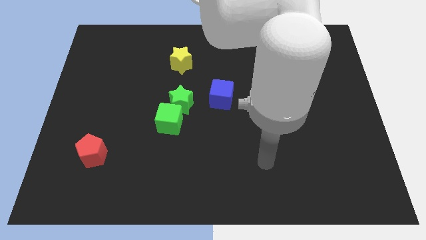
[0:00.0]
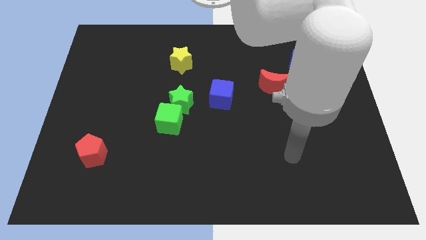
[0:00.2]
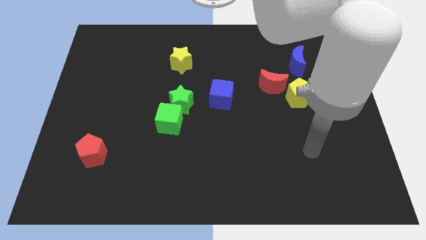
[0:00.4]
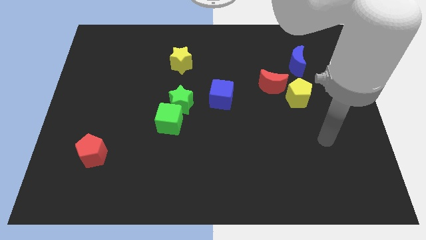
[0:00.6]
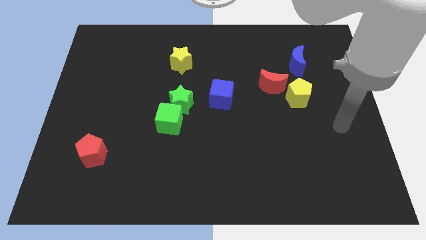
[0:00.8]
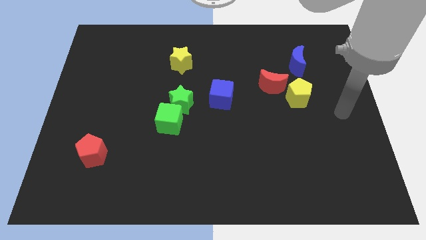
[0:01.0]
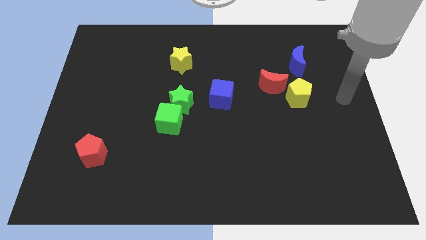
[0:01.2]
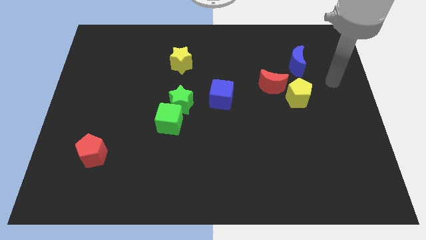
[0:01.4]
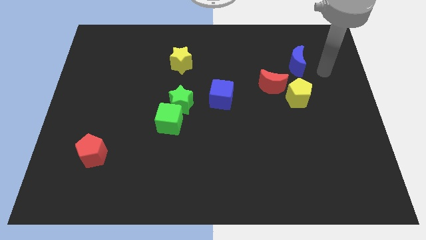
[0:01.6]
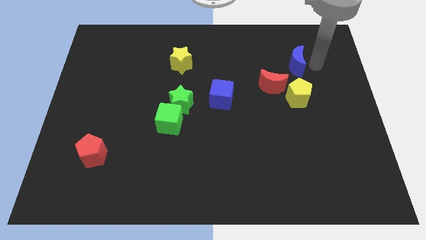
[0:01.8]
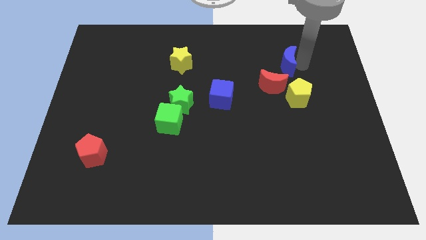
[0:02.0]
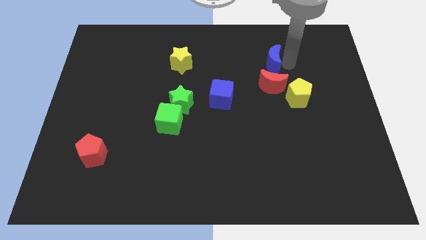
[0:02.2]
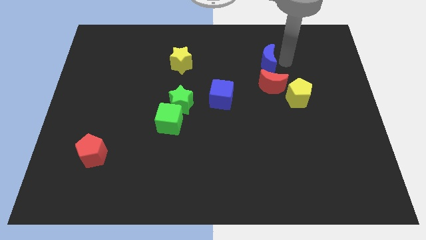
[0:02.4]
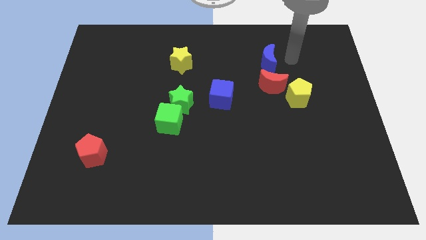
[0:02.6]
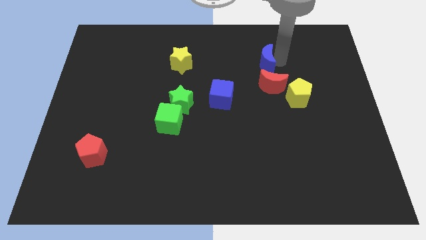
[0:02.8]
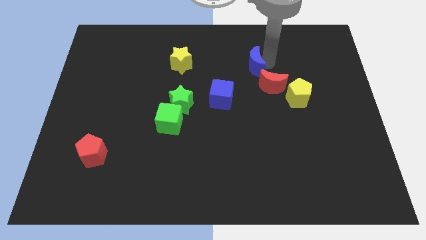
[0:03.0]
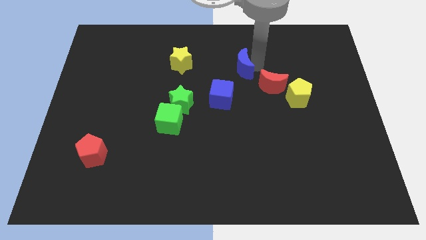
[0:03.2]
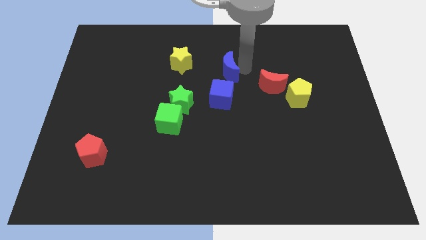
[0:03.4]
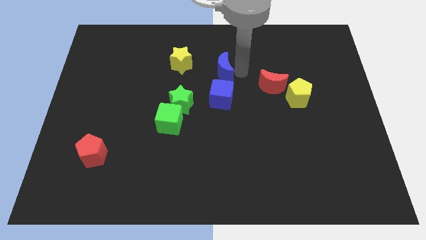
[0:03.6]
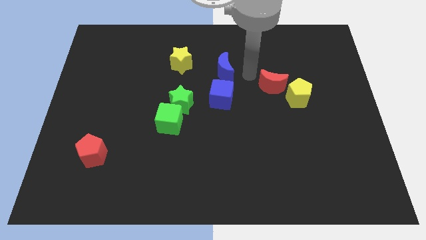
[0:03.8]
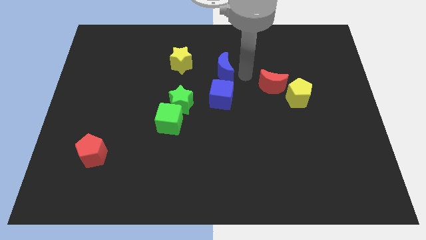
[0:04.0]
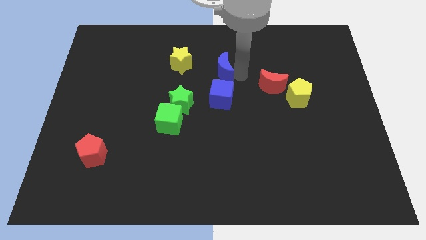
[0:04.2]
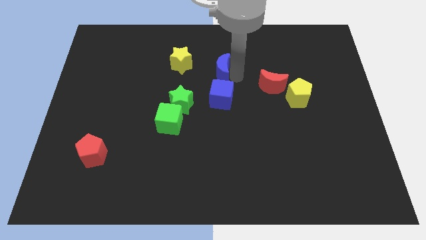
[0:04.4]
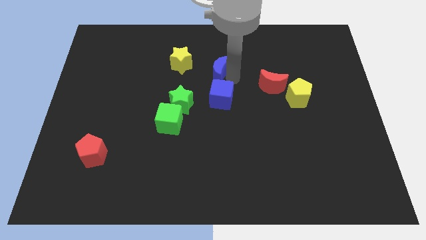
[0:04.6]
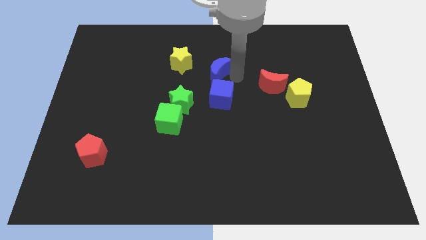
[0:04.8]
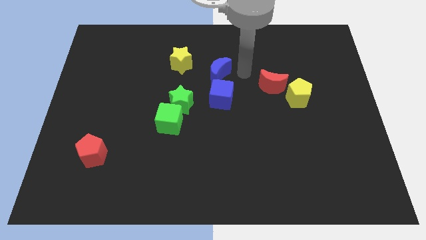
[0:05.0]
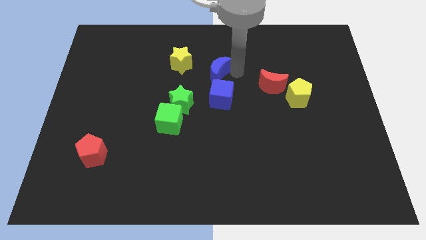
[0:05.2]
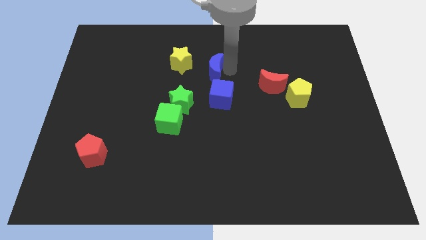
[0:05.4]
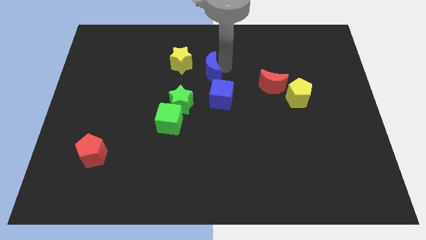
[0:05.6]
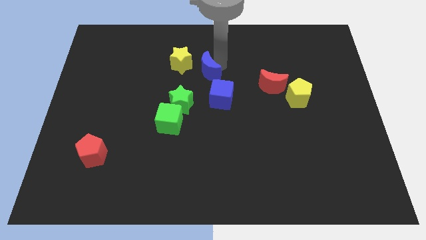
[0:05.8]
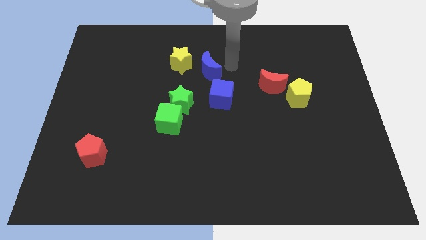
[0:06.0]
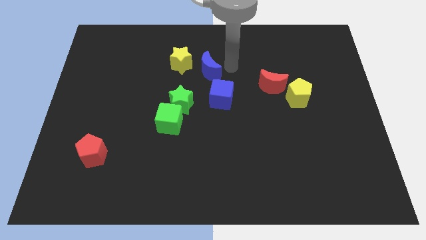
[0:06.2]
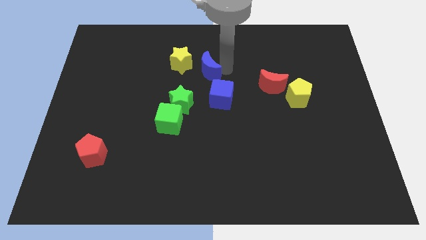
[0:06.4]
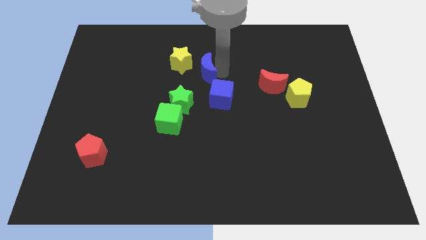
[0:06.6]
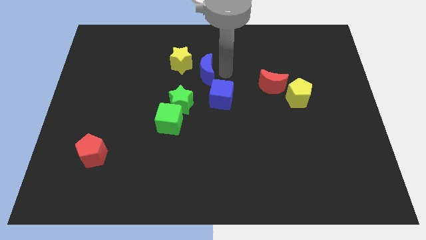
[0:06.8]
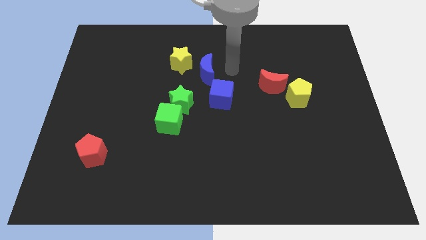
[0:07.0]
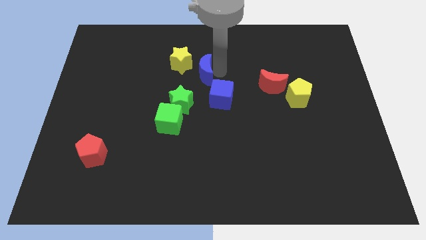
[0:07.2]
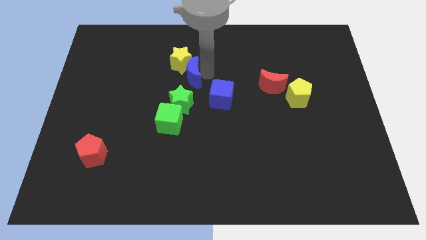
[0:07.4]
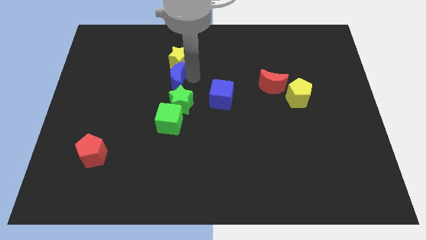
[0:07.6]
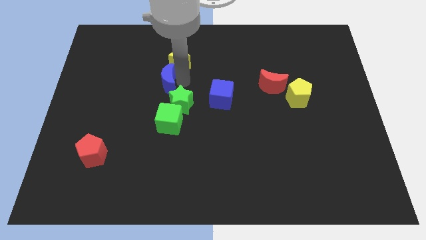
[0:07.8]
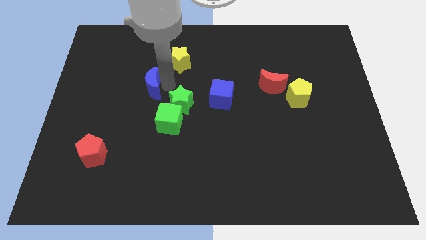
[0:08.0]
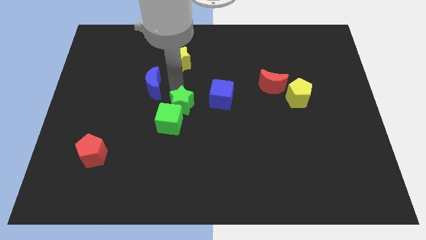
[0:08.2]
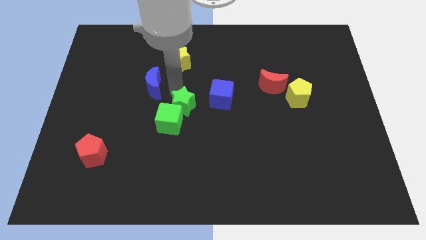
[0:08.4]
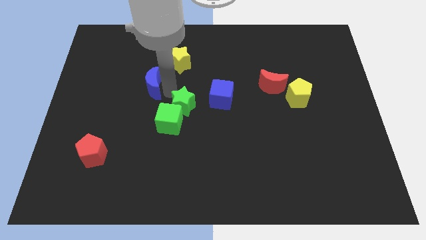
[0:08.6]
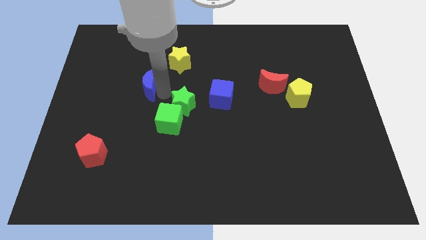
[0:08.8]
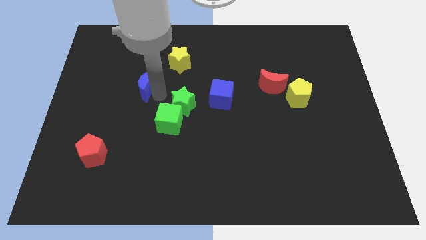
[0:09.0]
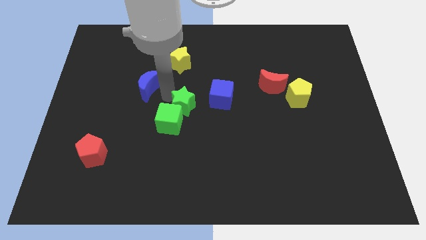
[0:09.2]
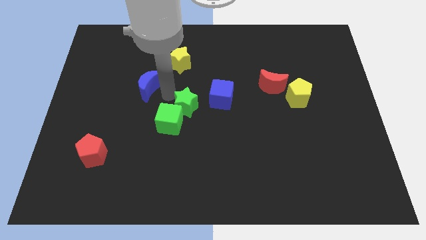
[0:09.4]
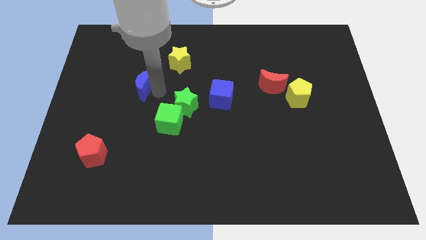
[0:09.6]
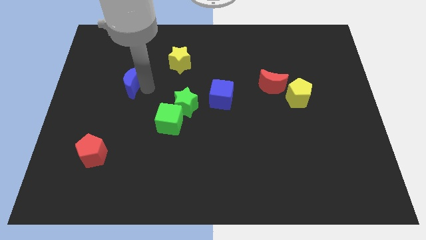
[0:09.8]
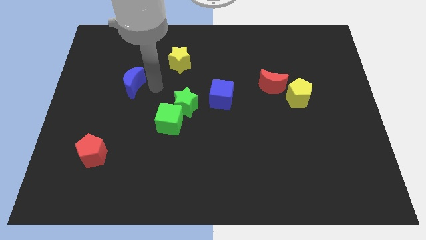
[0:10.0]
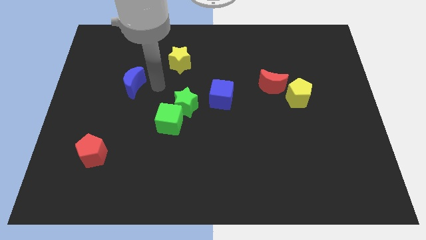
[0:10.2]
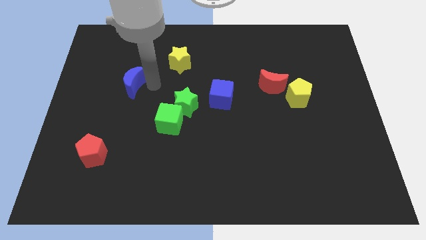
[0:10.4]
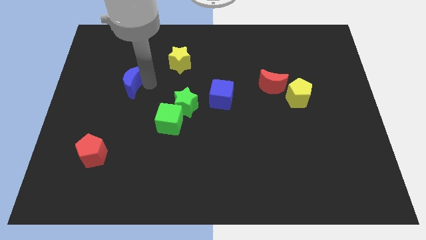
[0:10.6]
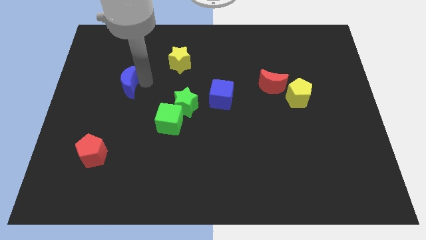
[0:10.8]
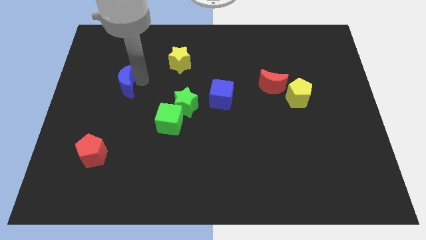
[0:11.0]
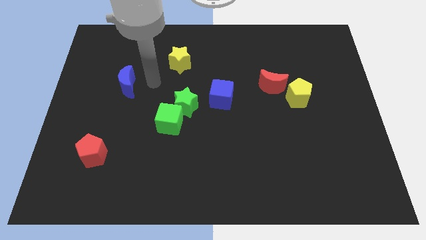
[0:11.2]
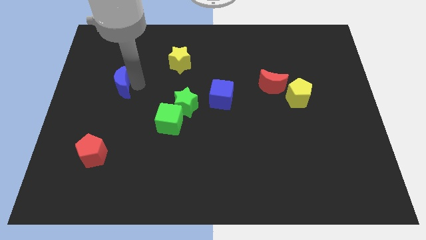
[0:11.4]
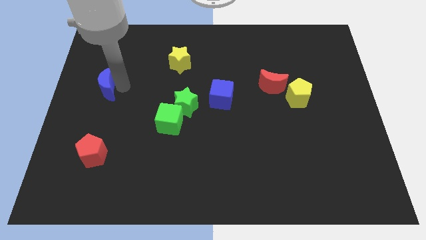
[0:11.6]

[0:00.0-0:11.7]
move the blue moon to the center left
